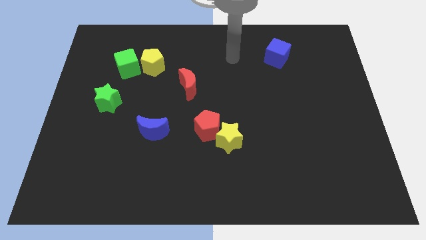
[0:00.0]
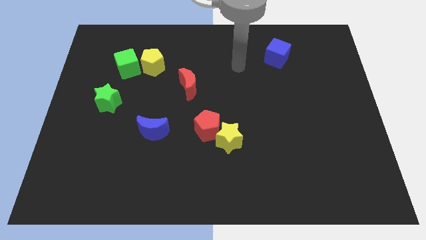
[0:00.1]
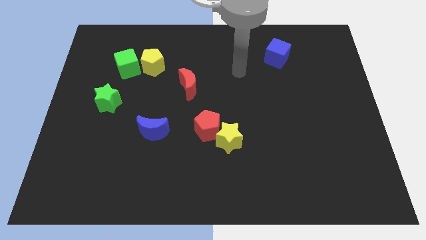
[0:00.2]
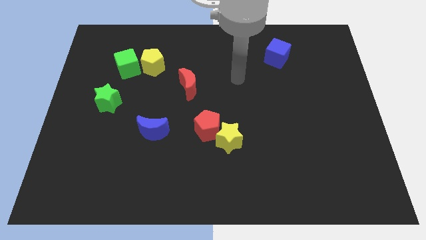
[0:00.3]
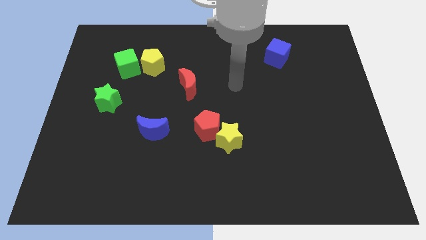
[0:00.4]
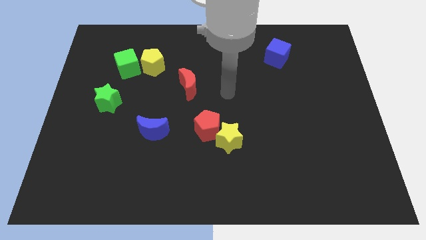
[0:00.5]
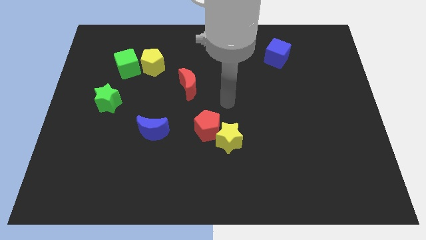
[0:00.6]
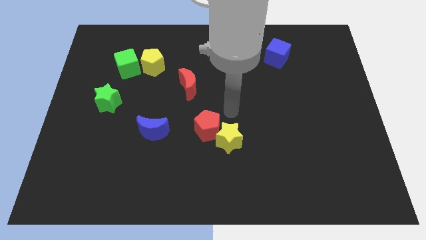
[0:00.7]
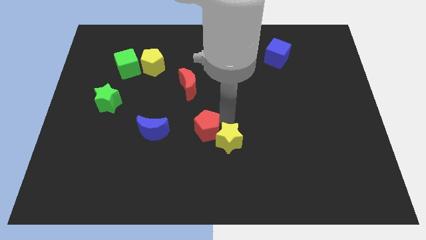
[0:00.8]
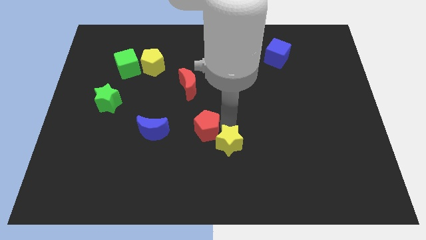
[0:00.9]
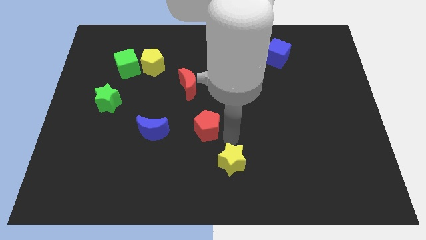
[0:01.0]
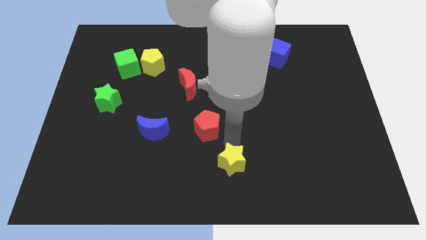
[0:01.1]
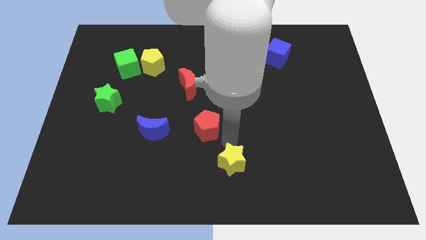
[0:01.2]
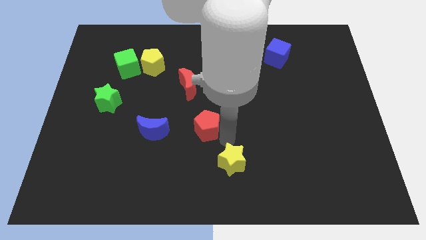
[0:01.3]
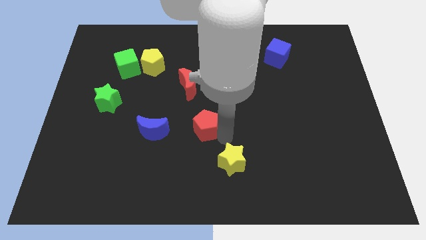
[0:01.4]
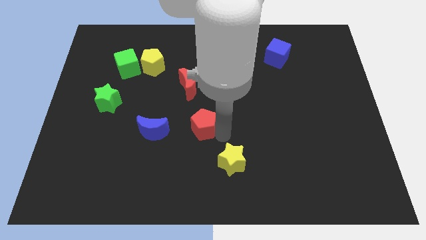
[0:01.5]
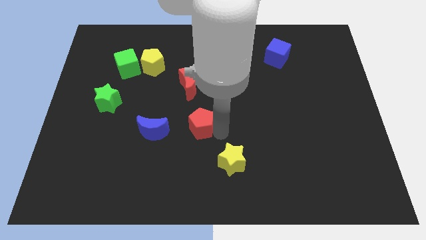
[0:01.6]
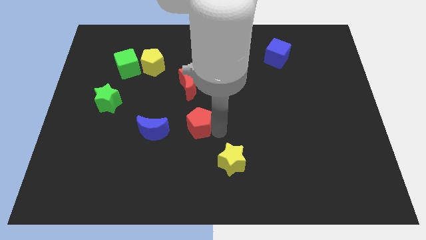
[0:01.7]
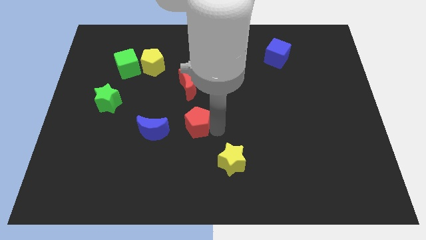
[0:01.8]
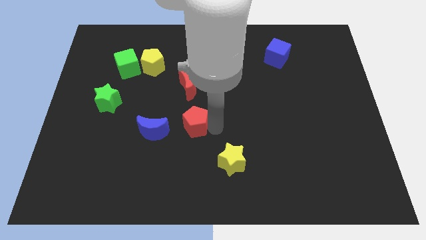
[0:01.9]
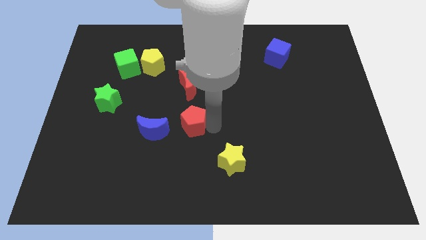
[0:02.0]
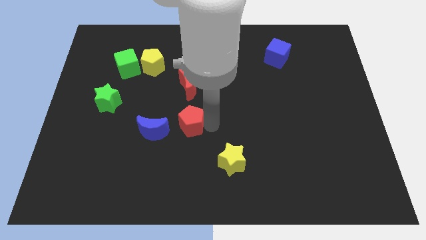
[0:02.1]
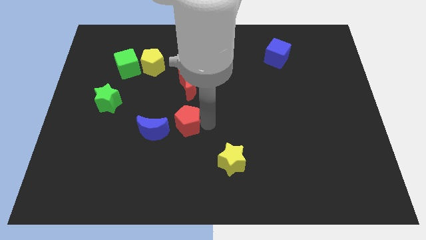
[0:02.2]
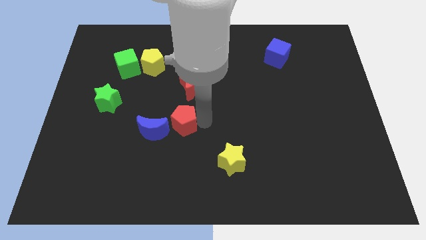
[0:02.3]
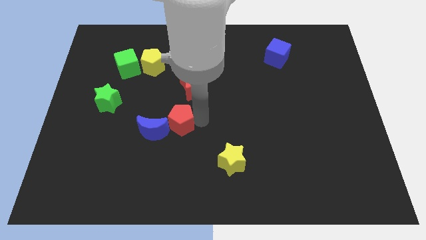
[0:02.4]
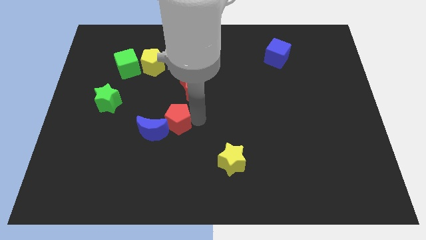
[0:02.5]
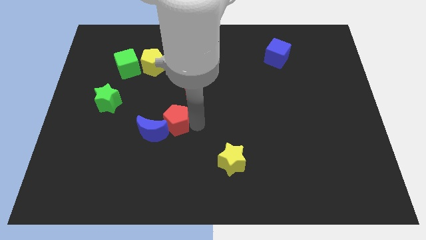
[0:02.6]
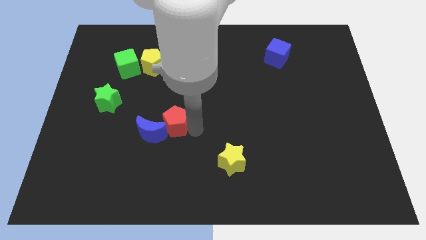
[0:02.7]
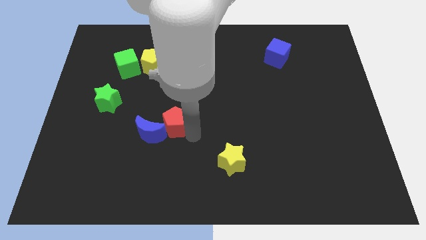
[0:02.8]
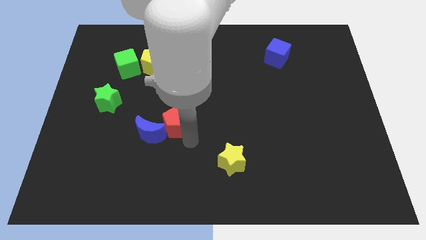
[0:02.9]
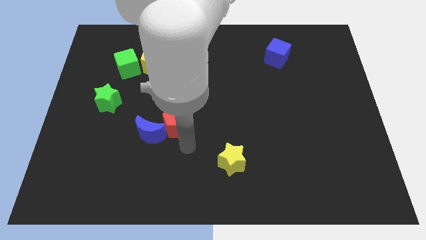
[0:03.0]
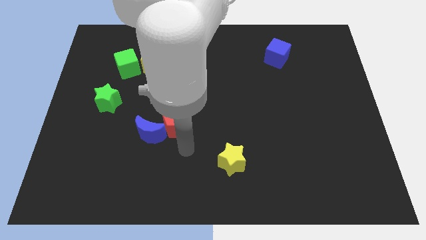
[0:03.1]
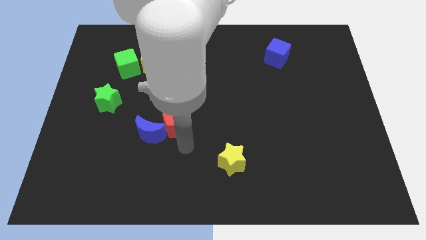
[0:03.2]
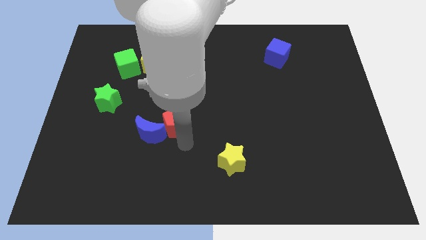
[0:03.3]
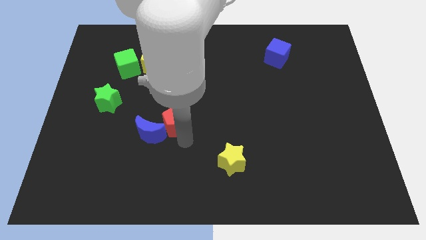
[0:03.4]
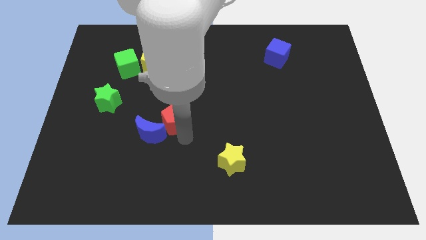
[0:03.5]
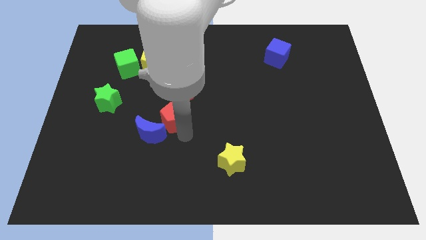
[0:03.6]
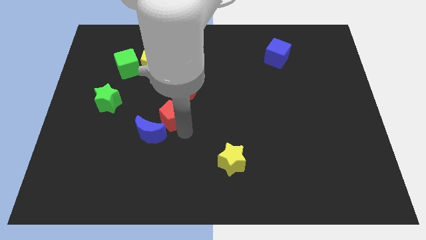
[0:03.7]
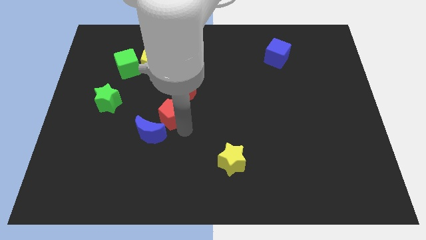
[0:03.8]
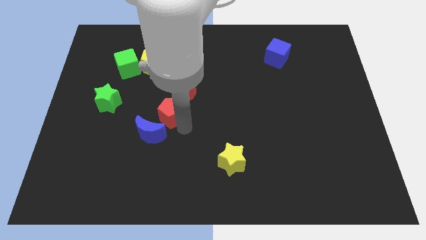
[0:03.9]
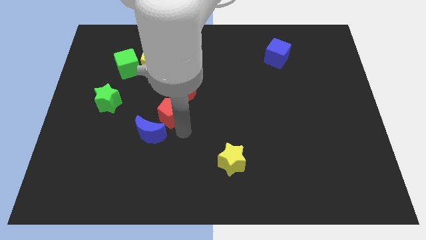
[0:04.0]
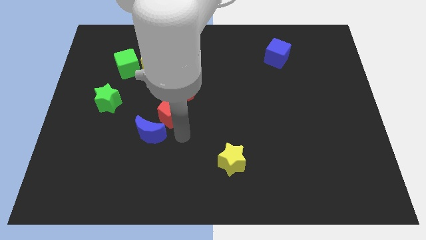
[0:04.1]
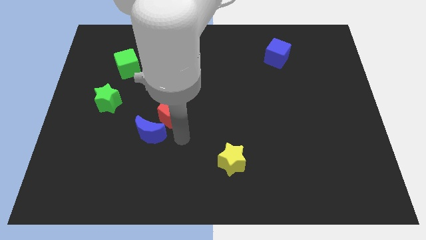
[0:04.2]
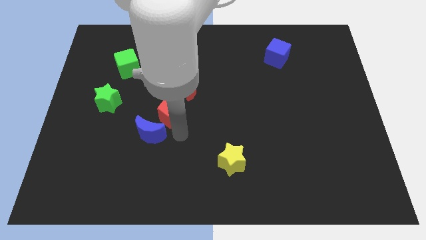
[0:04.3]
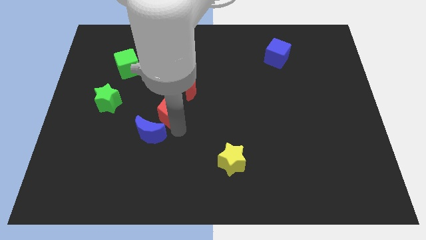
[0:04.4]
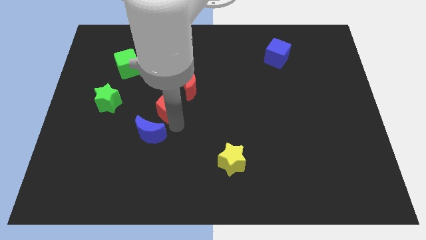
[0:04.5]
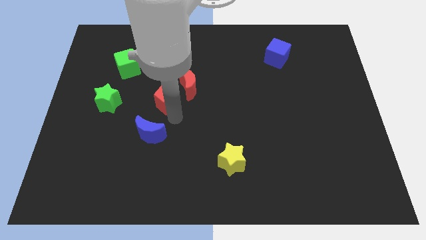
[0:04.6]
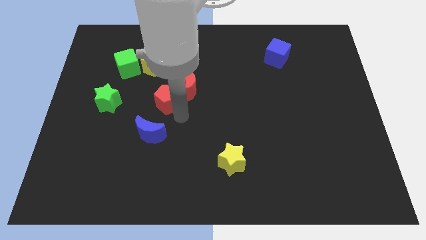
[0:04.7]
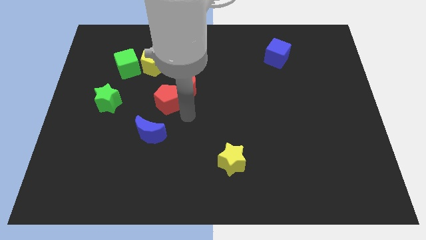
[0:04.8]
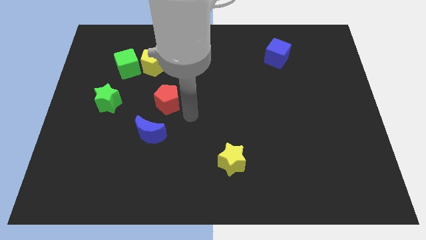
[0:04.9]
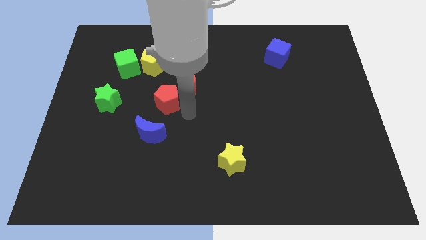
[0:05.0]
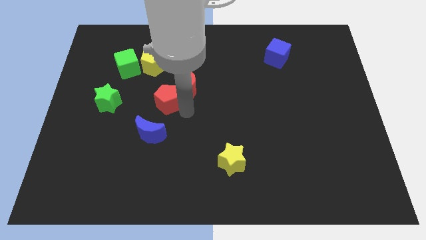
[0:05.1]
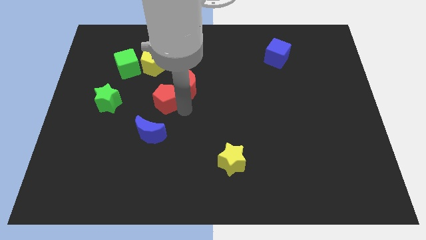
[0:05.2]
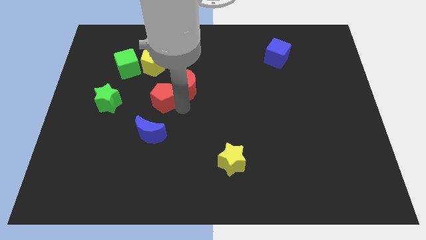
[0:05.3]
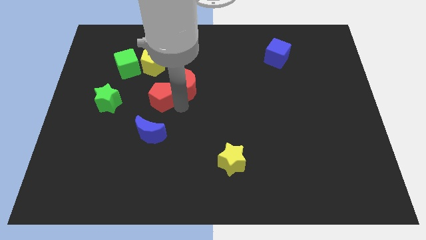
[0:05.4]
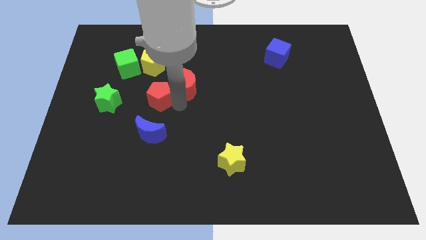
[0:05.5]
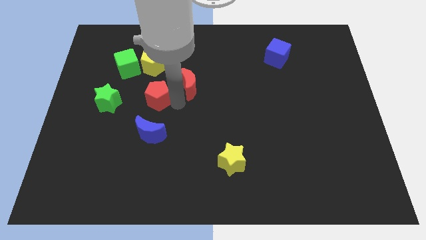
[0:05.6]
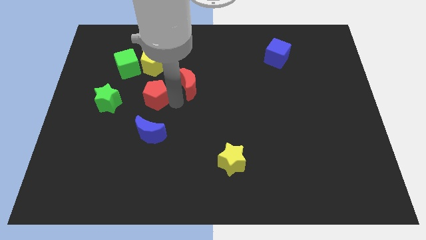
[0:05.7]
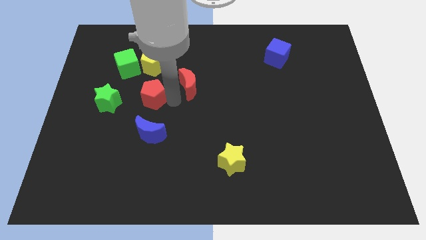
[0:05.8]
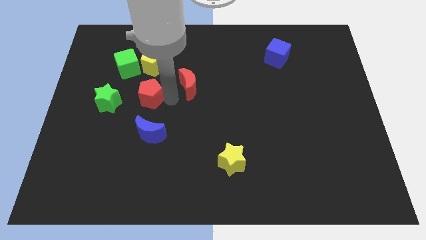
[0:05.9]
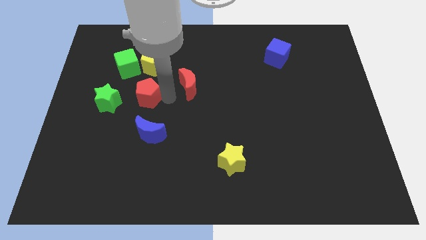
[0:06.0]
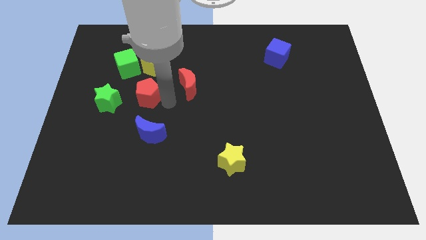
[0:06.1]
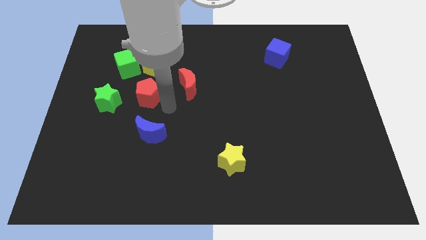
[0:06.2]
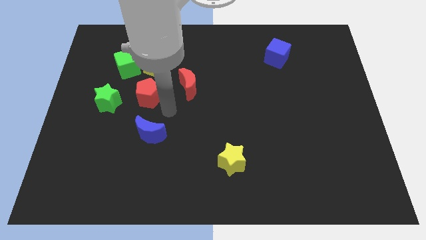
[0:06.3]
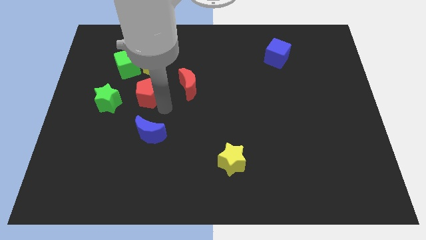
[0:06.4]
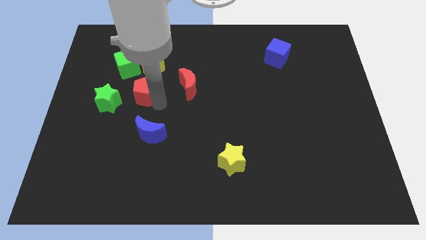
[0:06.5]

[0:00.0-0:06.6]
put the red pentagon to the top right side of the green star
